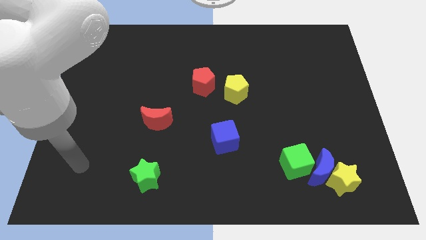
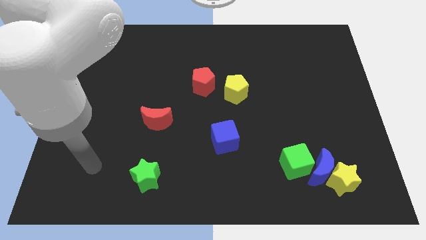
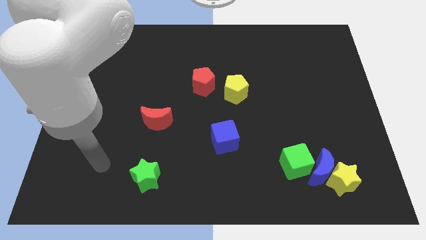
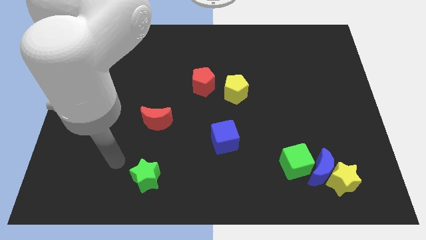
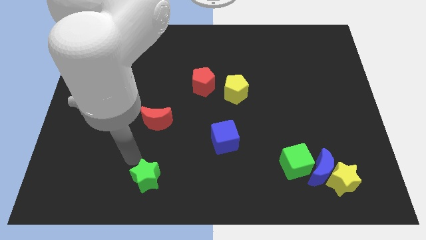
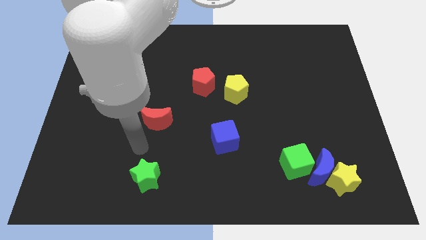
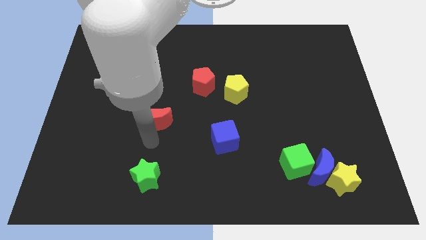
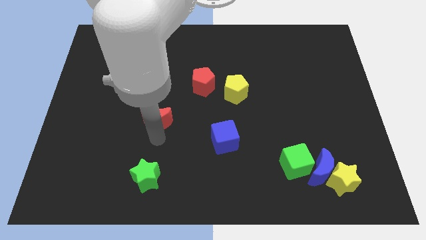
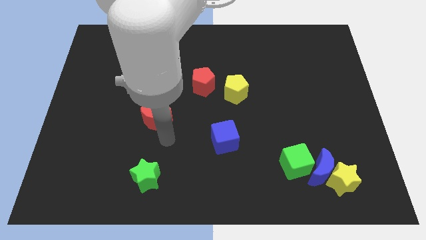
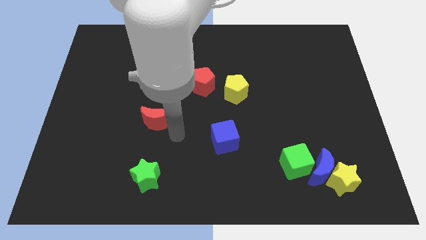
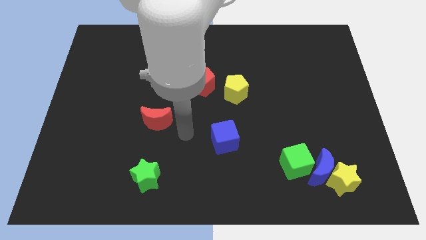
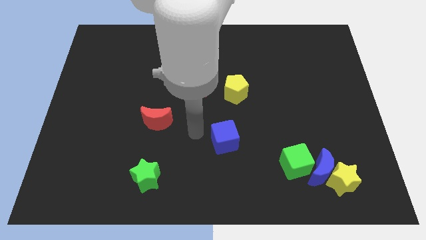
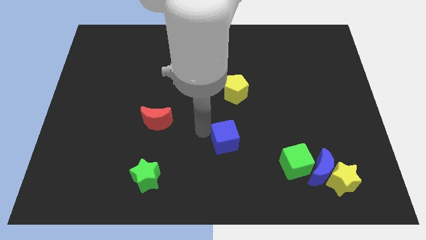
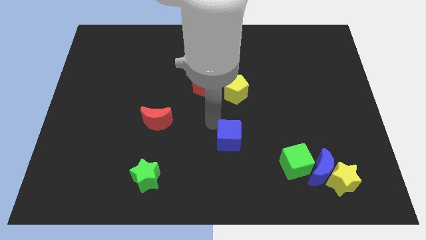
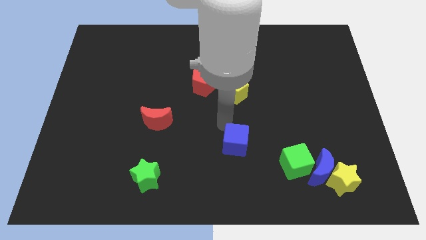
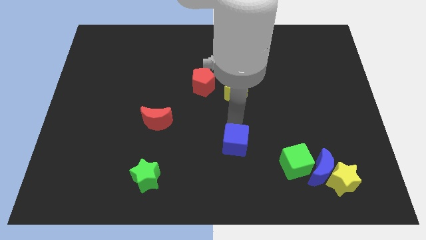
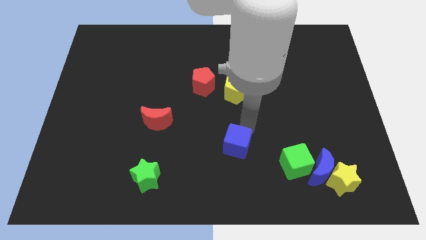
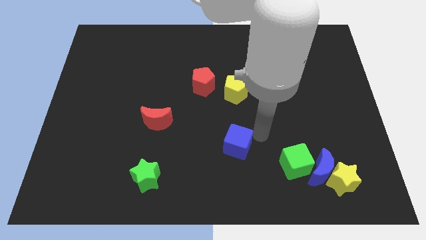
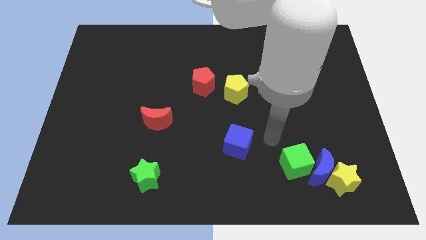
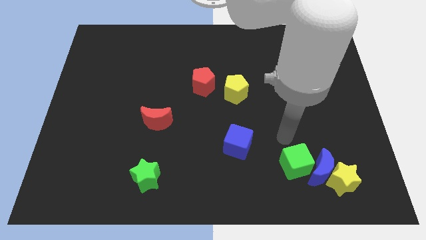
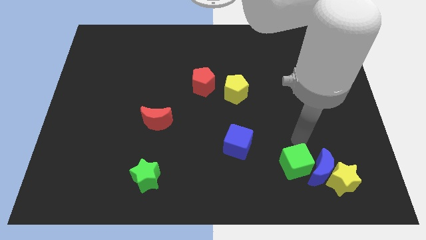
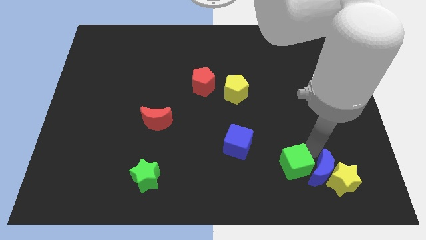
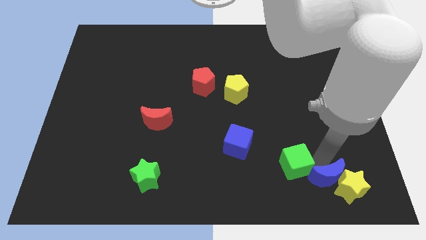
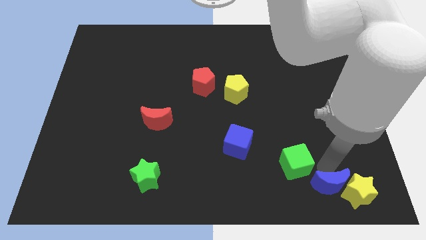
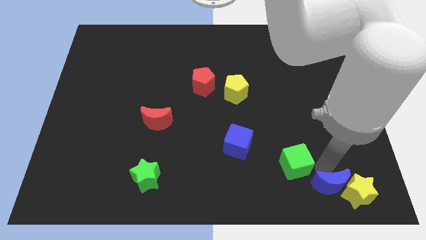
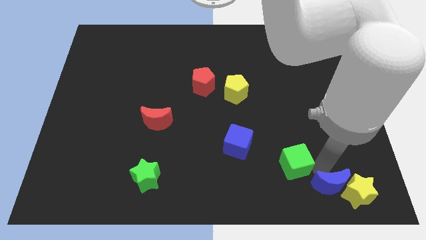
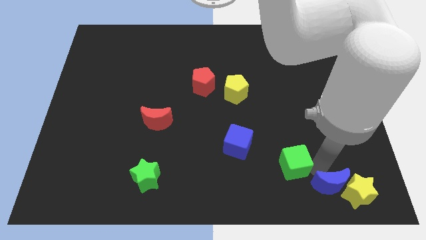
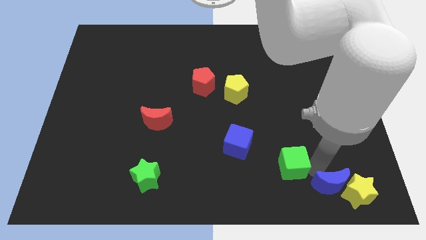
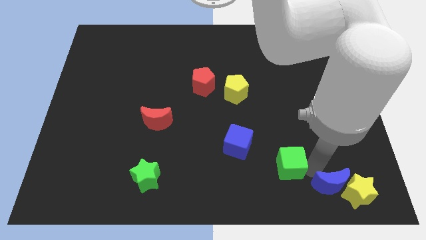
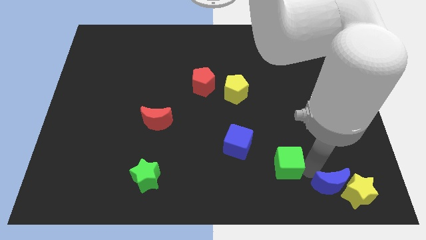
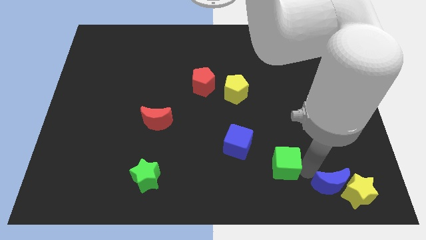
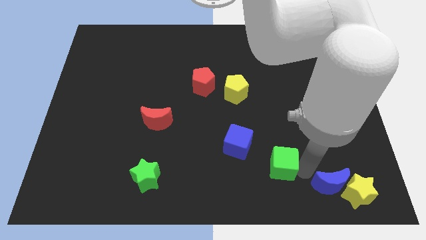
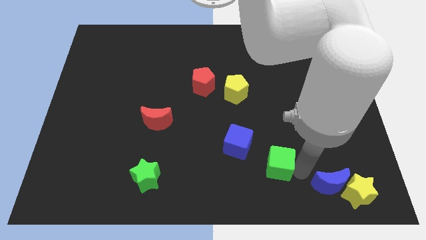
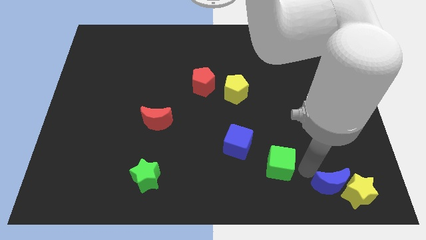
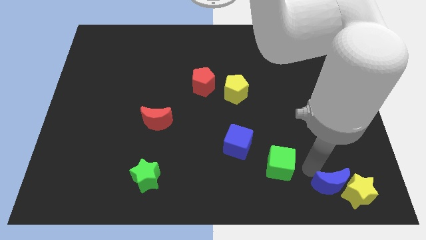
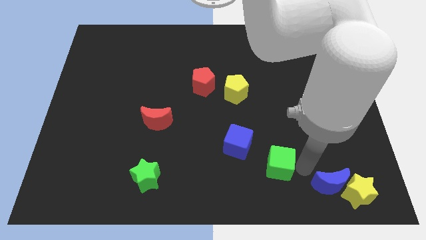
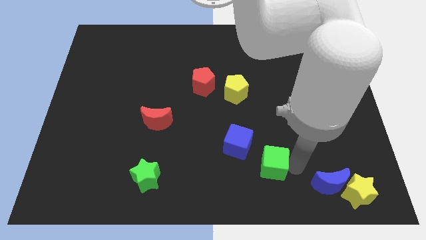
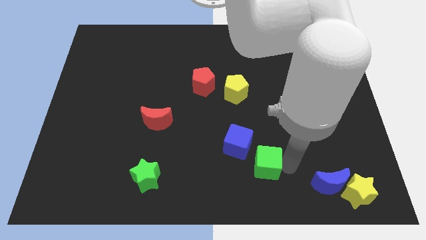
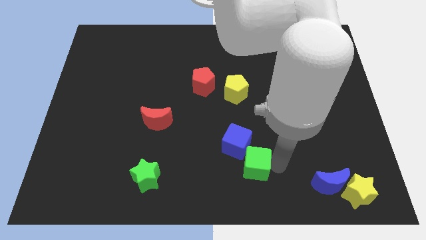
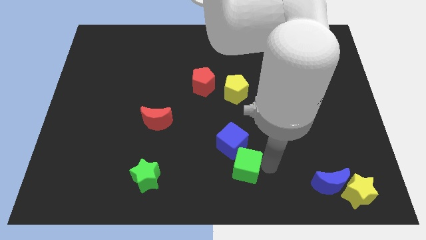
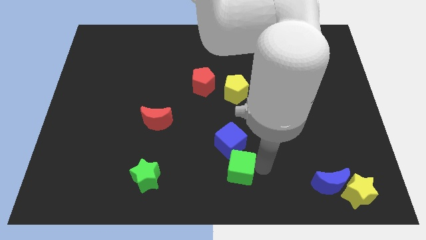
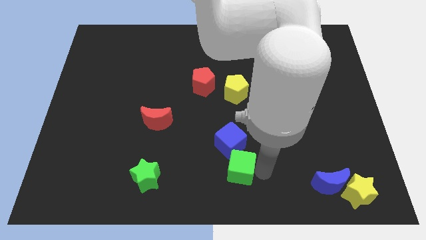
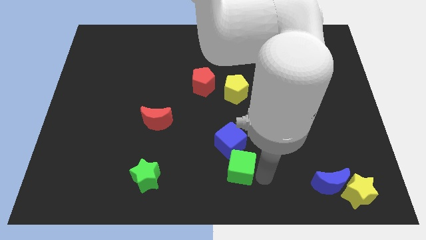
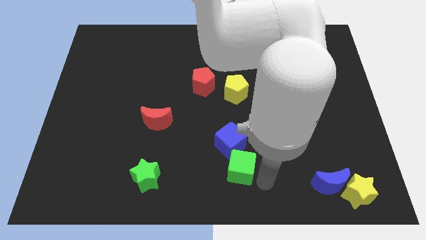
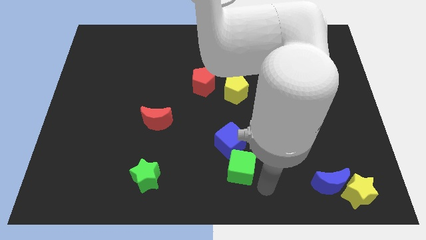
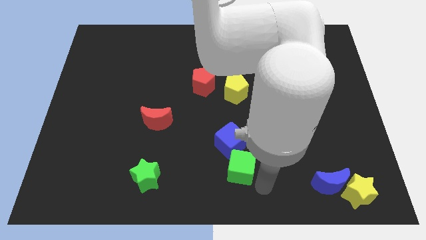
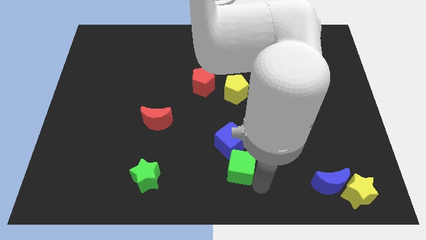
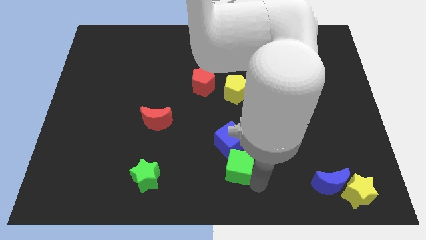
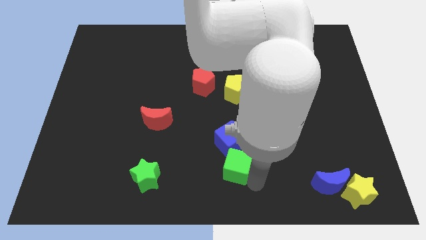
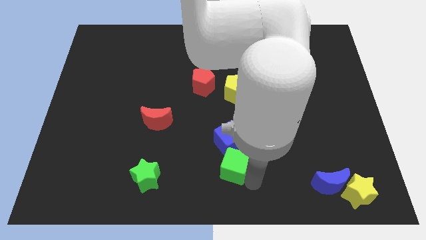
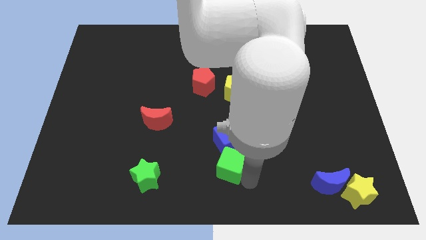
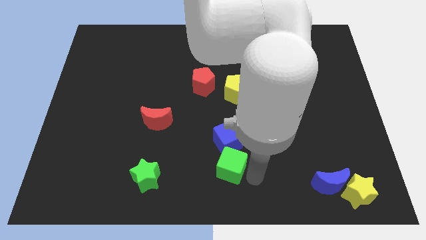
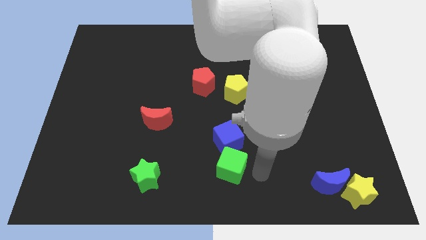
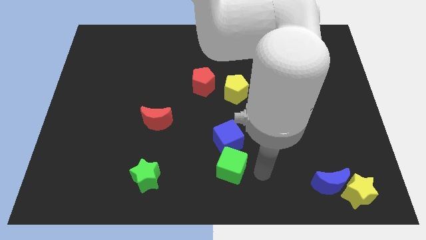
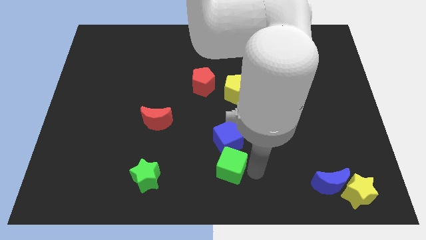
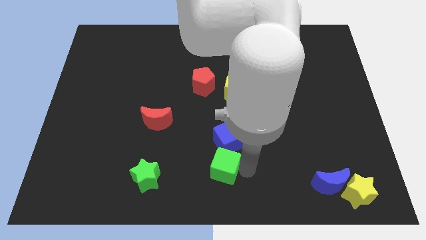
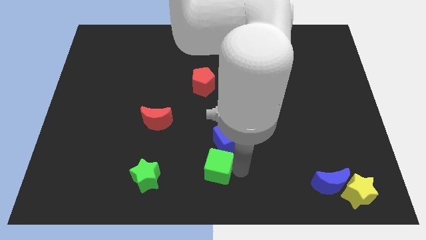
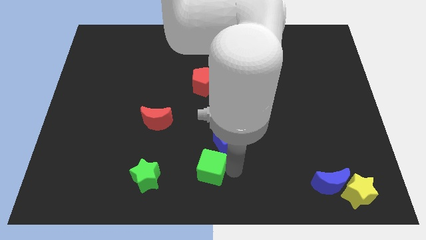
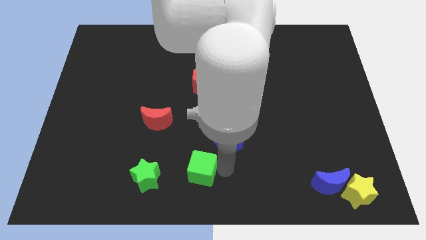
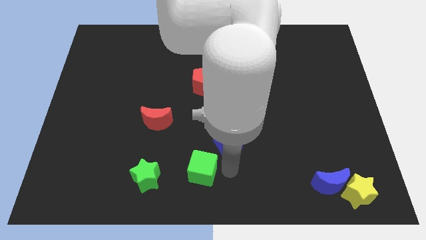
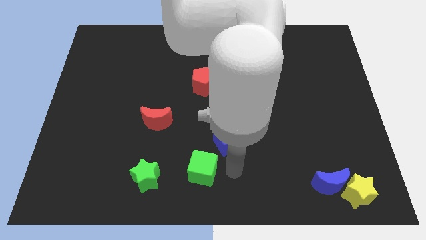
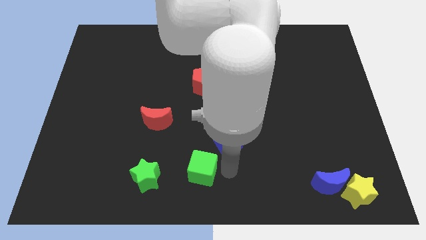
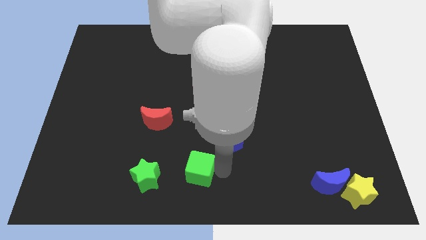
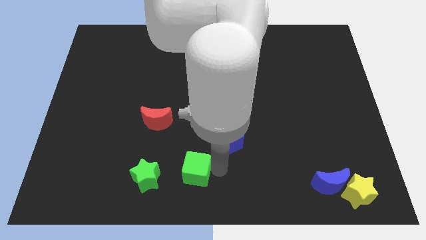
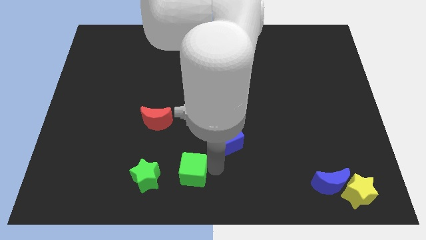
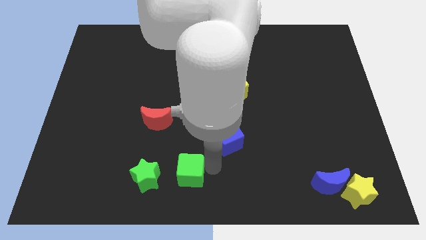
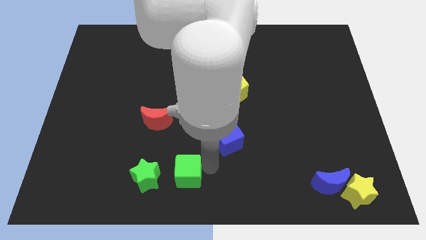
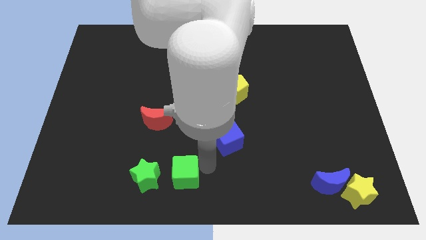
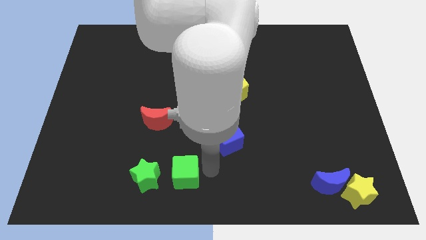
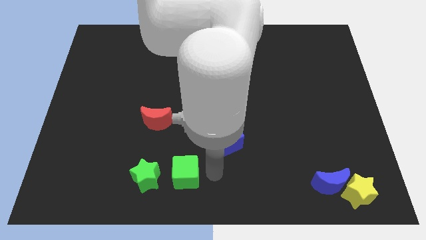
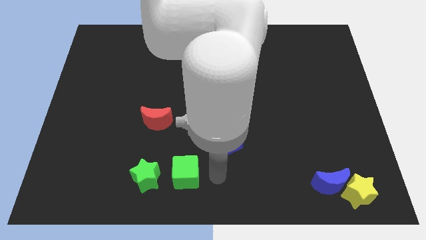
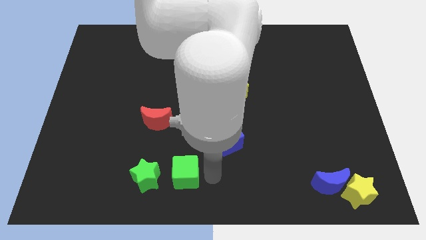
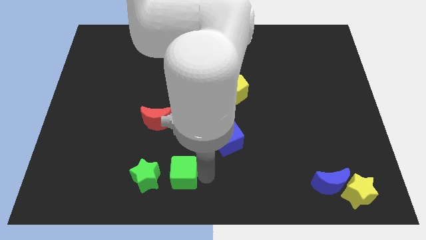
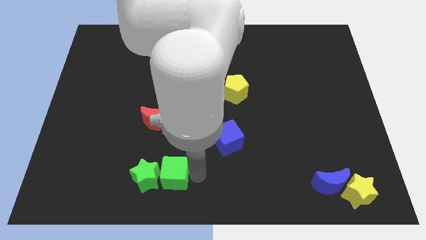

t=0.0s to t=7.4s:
move the green cube to the green star
